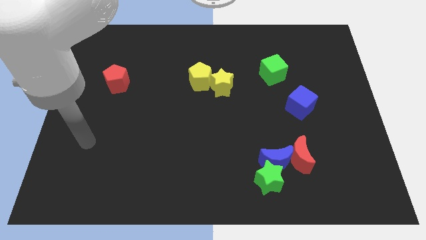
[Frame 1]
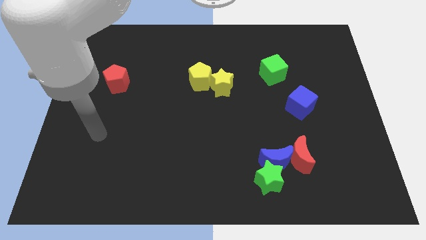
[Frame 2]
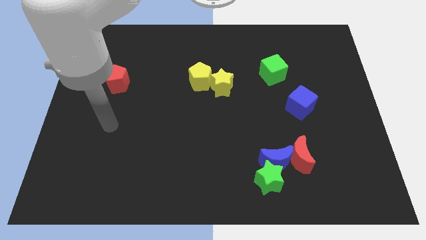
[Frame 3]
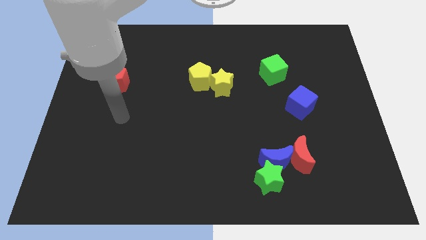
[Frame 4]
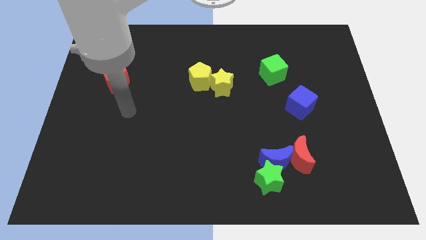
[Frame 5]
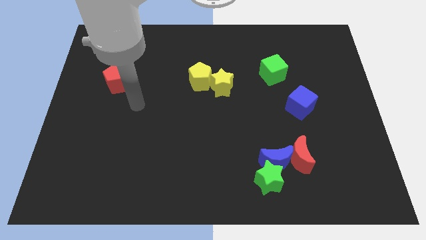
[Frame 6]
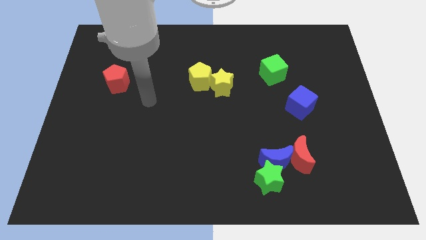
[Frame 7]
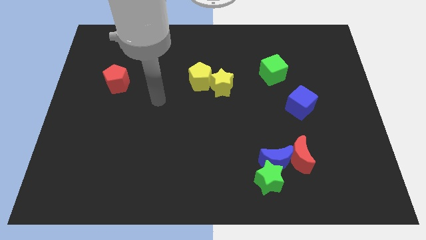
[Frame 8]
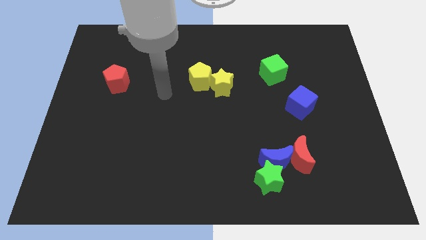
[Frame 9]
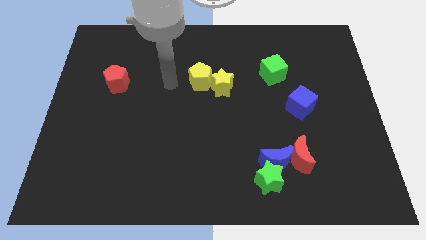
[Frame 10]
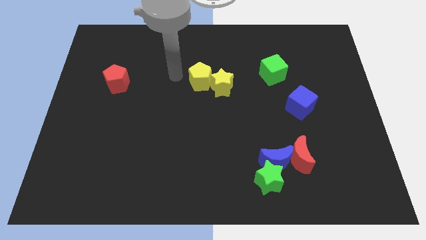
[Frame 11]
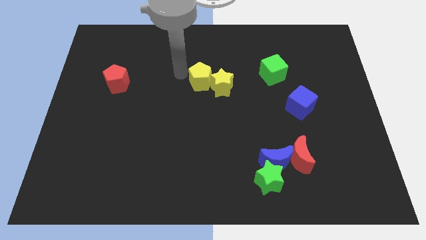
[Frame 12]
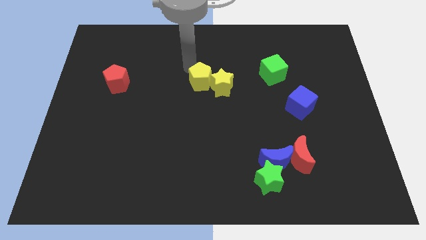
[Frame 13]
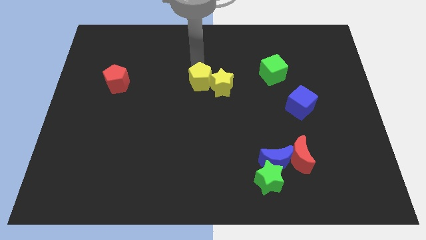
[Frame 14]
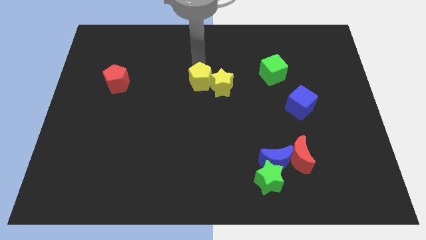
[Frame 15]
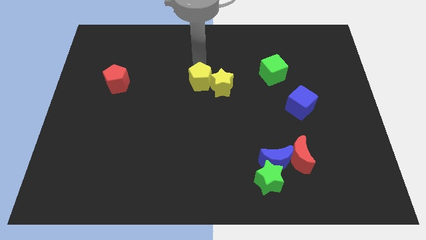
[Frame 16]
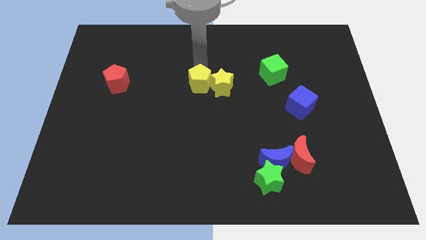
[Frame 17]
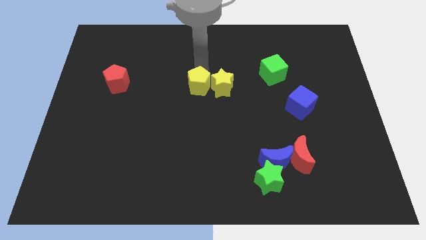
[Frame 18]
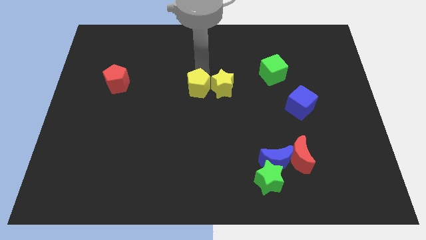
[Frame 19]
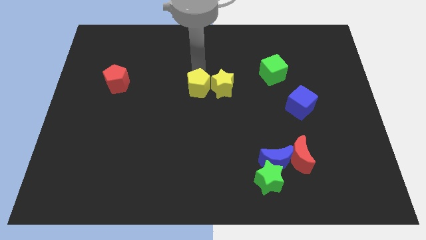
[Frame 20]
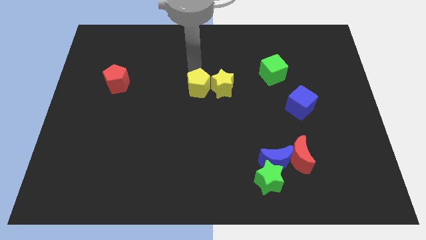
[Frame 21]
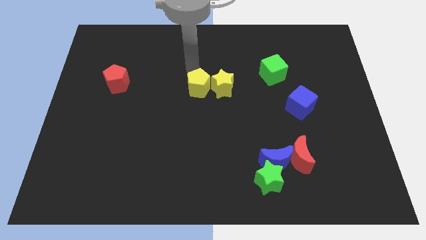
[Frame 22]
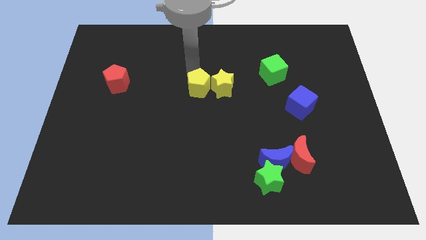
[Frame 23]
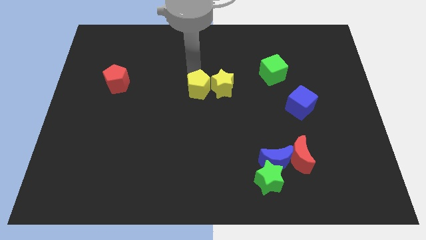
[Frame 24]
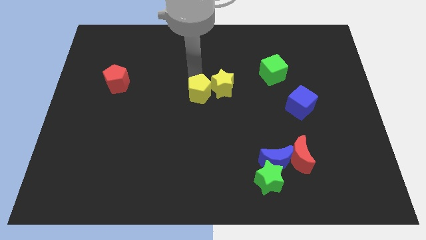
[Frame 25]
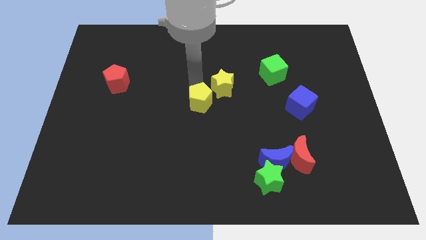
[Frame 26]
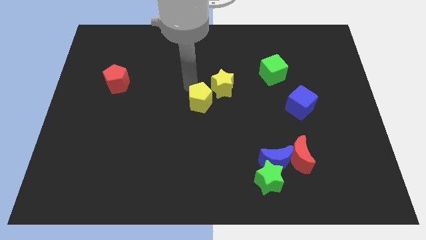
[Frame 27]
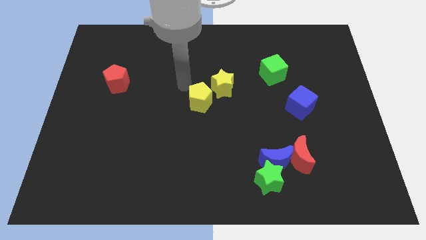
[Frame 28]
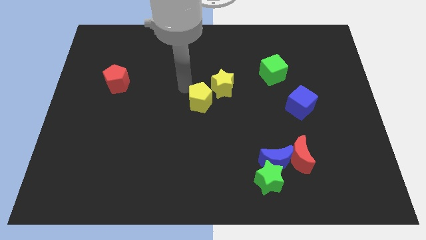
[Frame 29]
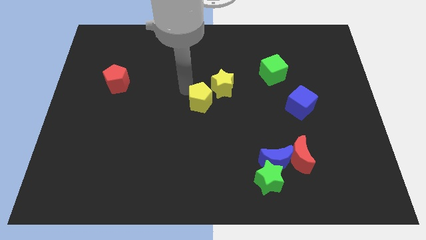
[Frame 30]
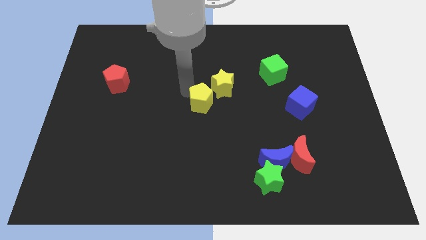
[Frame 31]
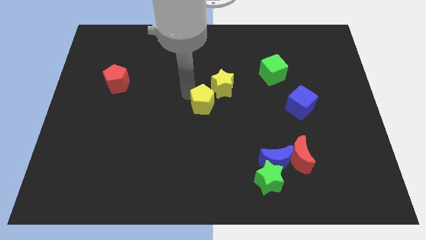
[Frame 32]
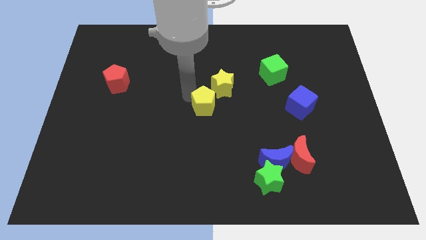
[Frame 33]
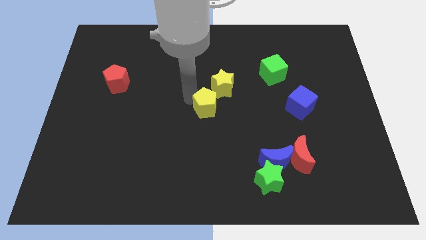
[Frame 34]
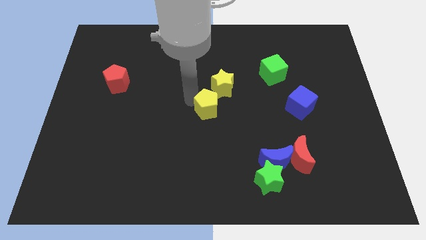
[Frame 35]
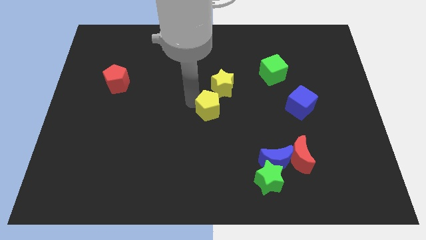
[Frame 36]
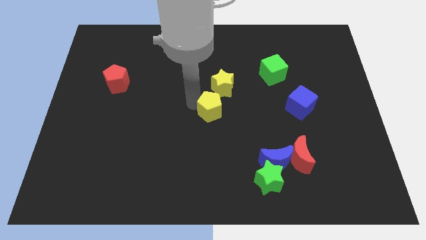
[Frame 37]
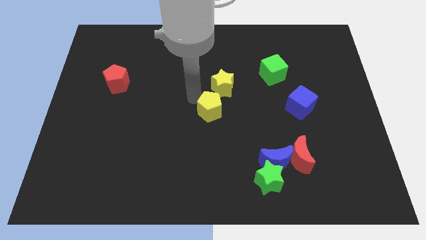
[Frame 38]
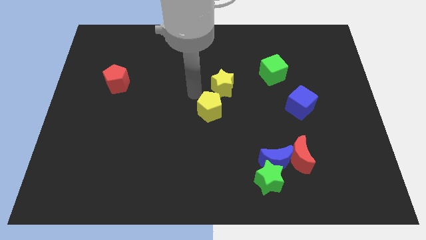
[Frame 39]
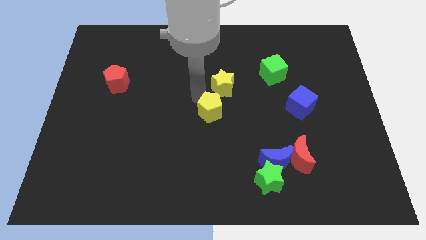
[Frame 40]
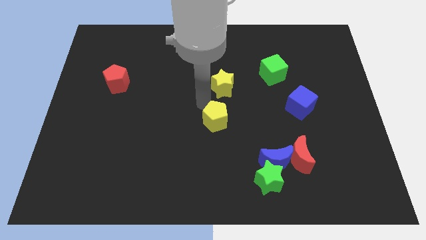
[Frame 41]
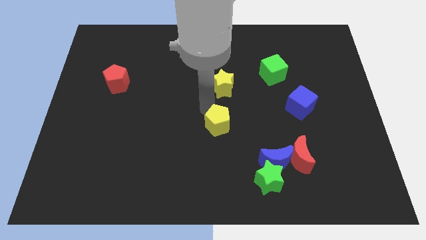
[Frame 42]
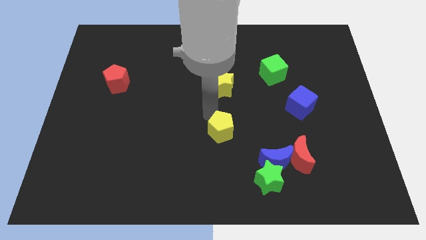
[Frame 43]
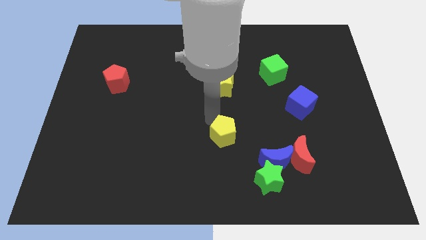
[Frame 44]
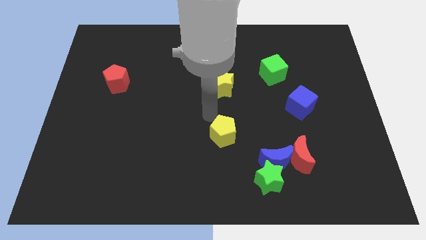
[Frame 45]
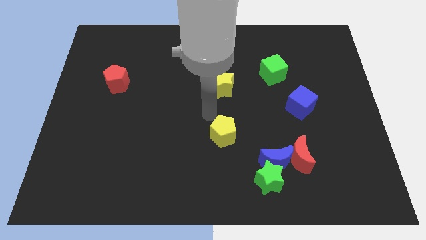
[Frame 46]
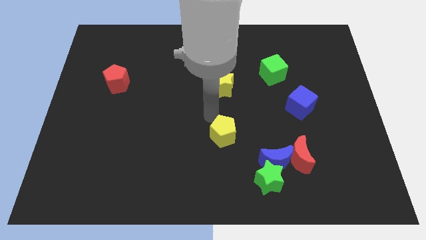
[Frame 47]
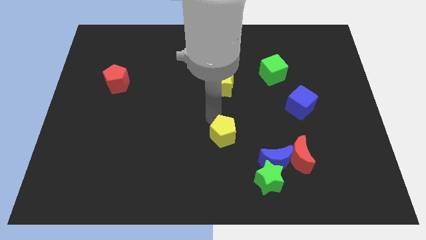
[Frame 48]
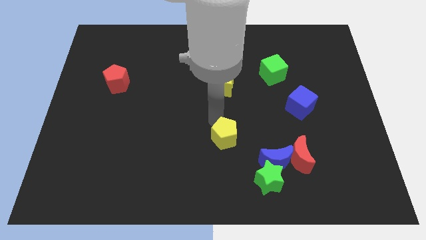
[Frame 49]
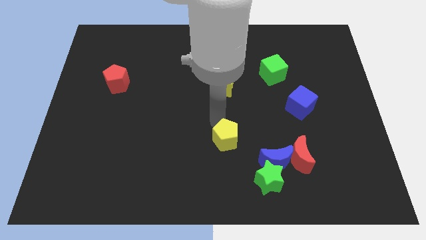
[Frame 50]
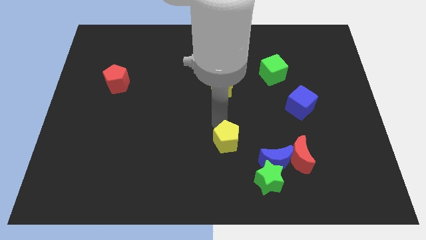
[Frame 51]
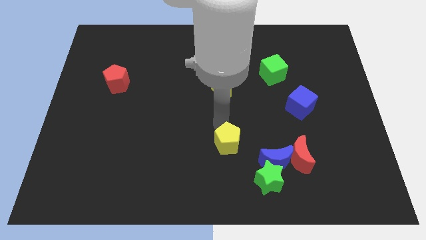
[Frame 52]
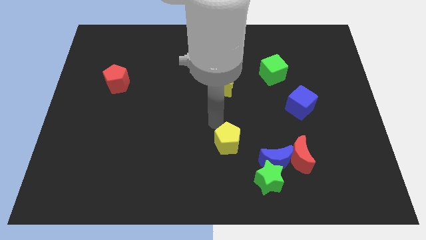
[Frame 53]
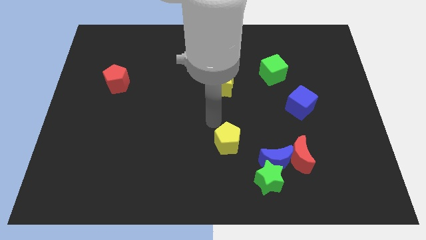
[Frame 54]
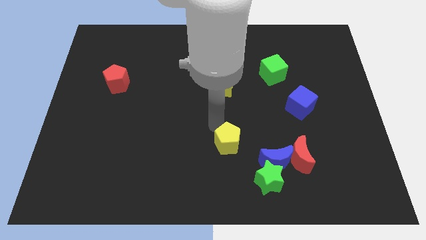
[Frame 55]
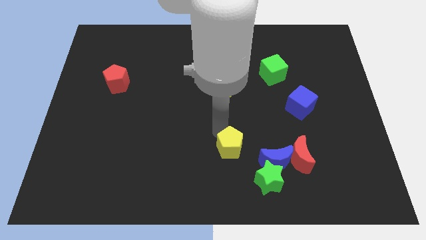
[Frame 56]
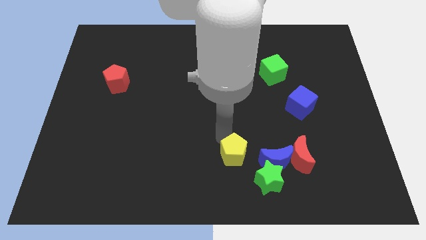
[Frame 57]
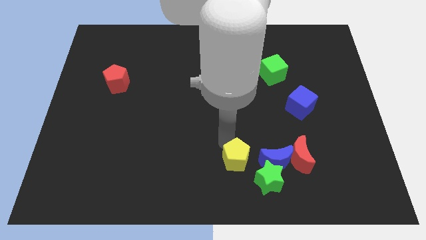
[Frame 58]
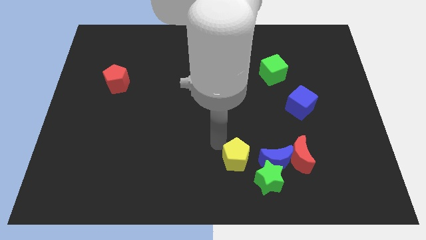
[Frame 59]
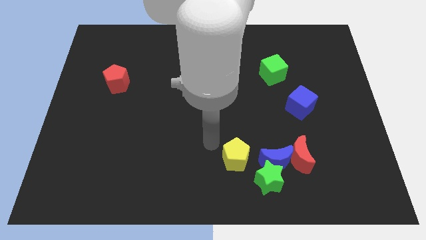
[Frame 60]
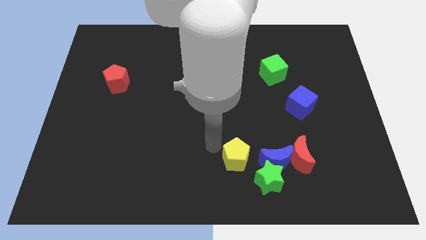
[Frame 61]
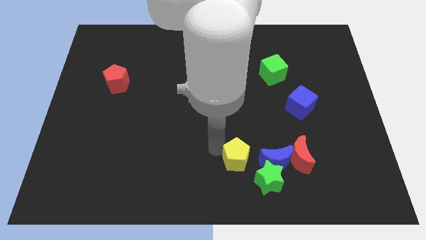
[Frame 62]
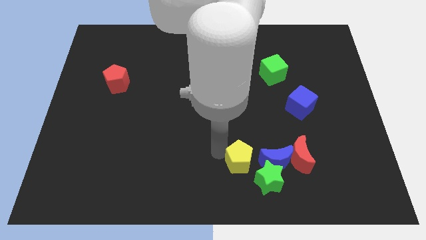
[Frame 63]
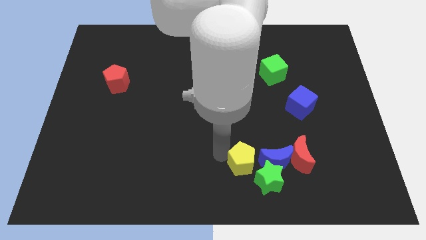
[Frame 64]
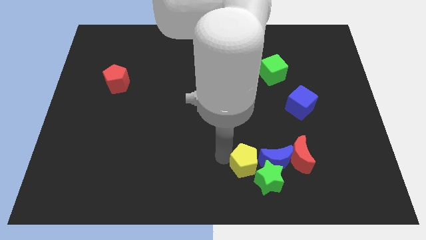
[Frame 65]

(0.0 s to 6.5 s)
move the yellow pentagon close to the green star

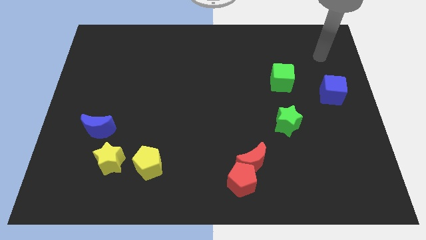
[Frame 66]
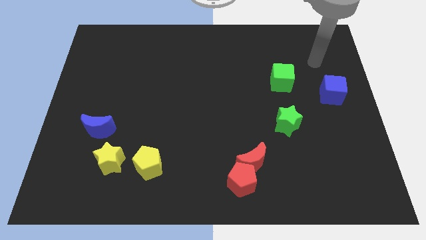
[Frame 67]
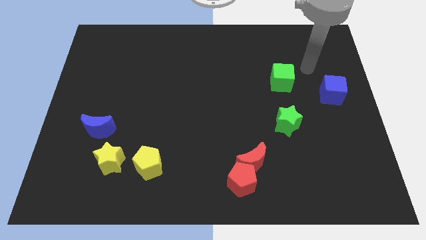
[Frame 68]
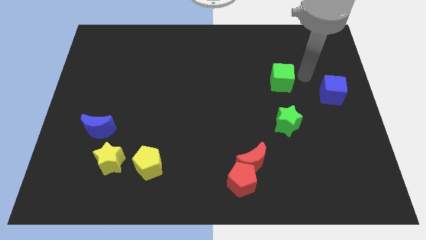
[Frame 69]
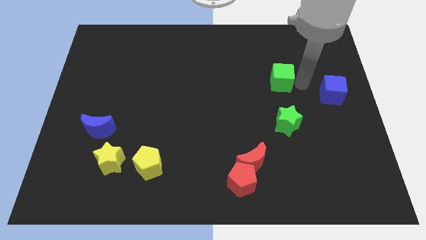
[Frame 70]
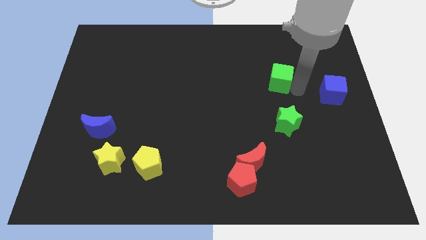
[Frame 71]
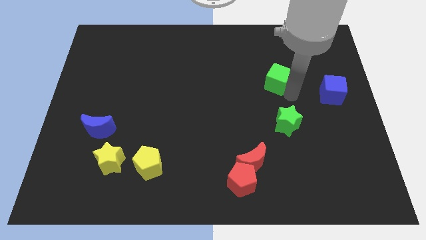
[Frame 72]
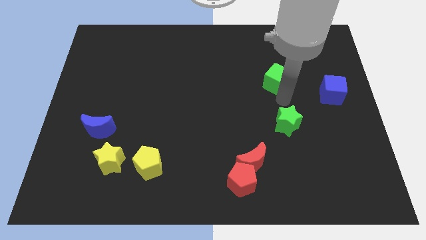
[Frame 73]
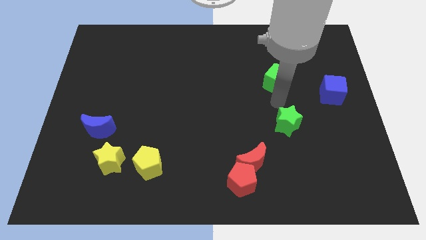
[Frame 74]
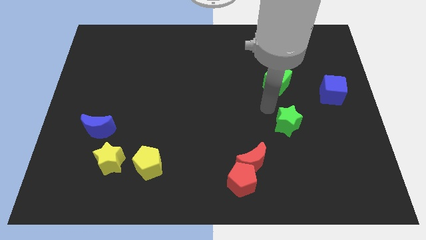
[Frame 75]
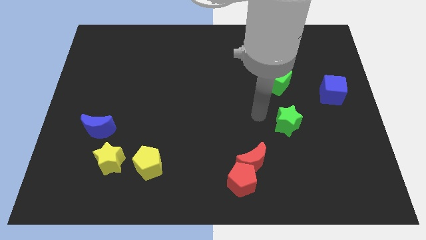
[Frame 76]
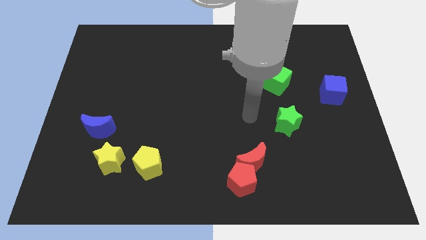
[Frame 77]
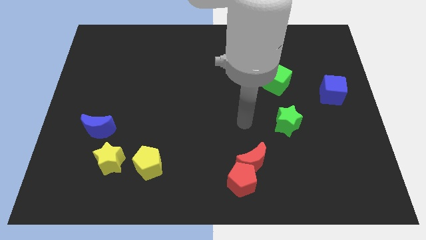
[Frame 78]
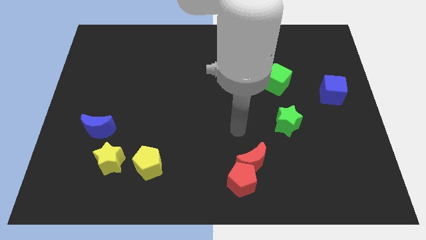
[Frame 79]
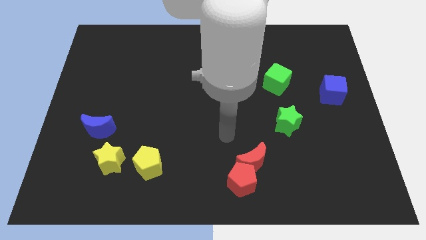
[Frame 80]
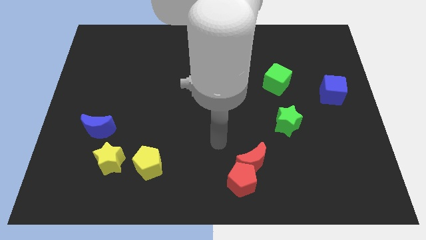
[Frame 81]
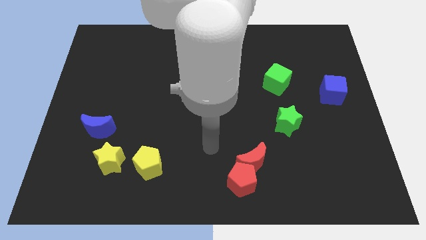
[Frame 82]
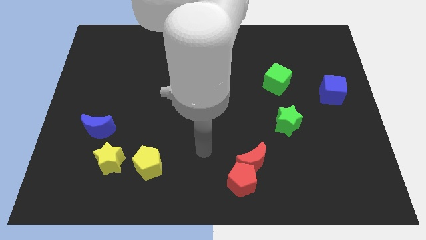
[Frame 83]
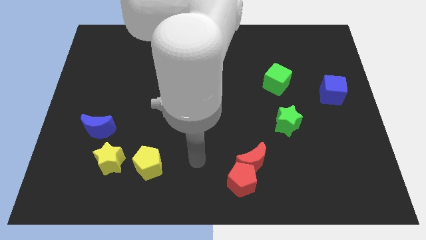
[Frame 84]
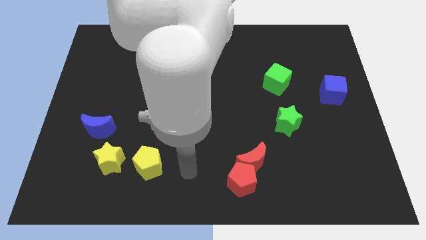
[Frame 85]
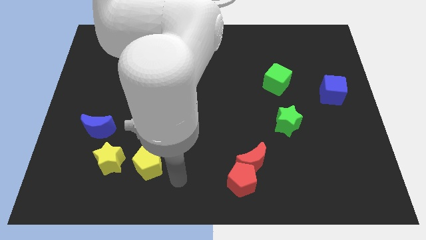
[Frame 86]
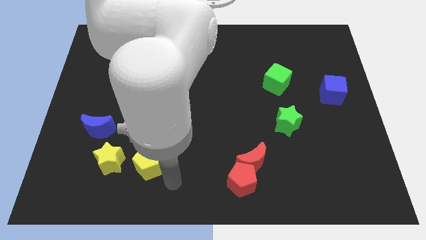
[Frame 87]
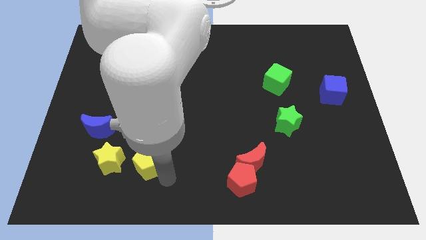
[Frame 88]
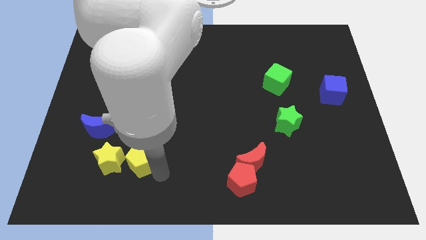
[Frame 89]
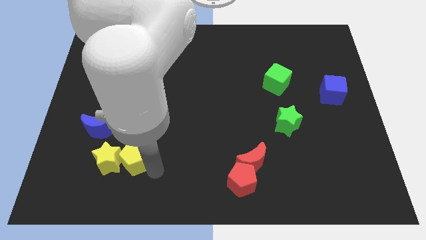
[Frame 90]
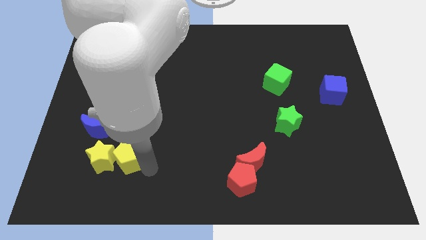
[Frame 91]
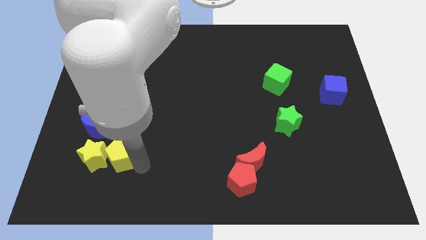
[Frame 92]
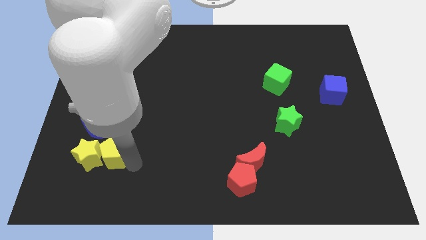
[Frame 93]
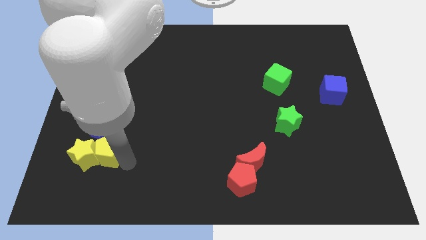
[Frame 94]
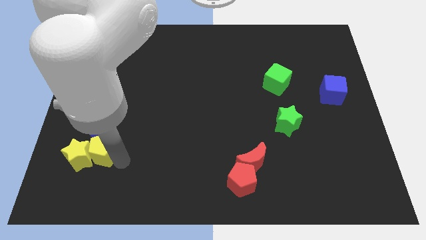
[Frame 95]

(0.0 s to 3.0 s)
move the yellow pentagon next to the blue moon
